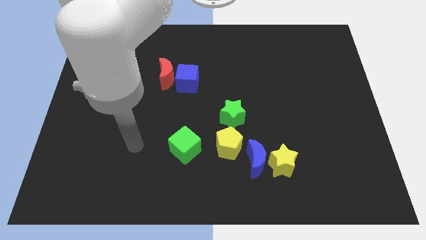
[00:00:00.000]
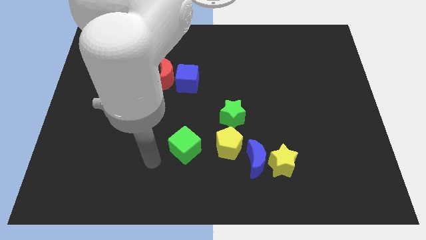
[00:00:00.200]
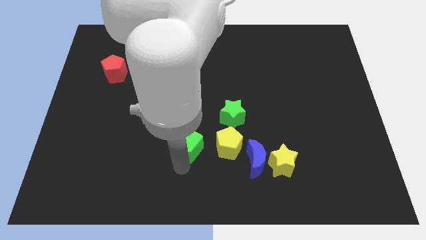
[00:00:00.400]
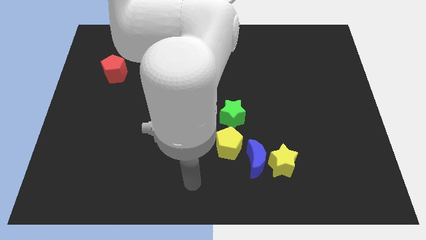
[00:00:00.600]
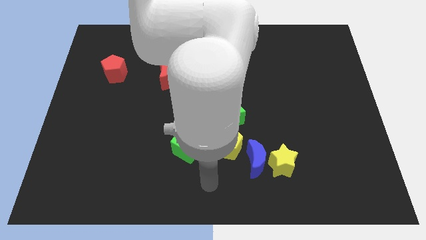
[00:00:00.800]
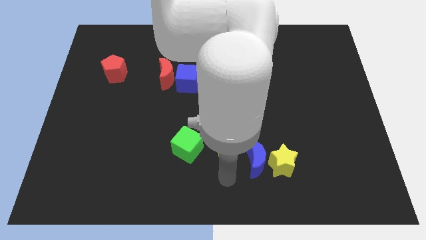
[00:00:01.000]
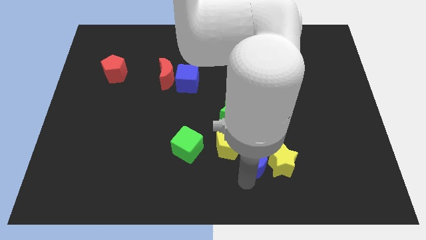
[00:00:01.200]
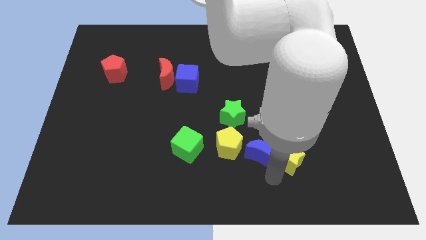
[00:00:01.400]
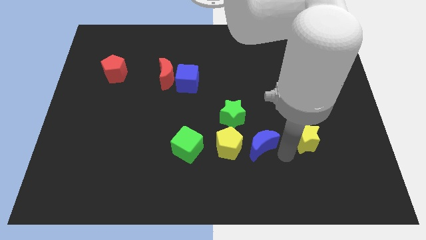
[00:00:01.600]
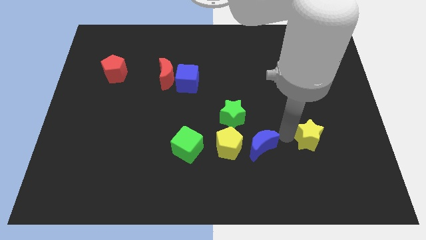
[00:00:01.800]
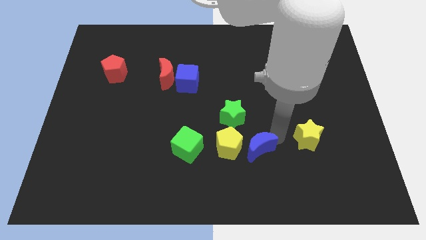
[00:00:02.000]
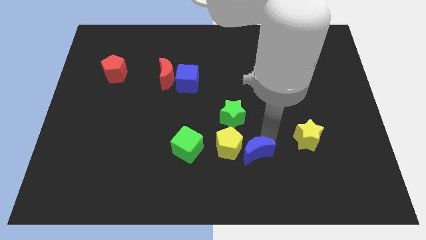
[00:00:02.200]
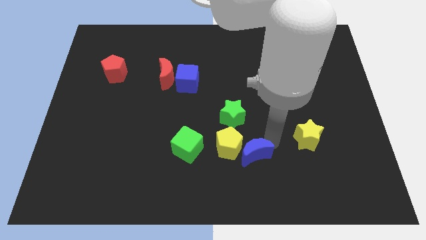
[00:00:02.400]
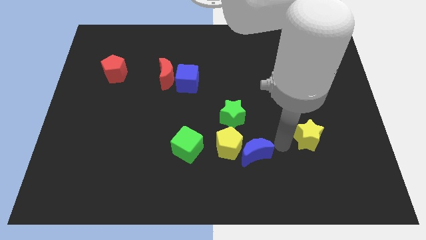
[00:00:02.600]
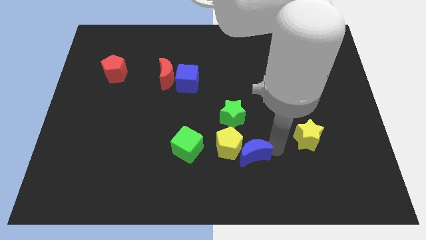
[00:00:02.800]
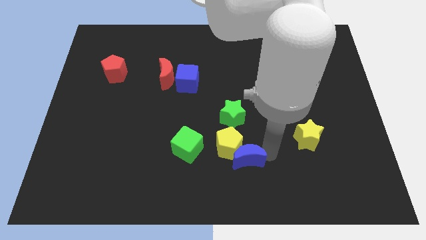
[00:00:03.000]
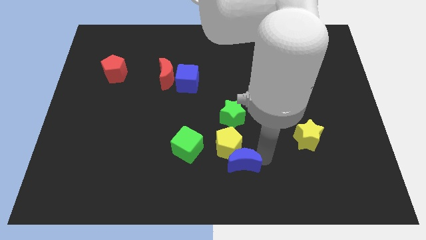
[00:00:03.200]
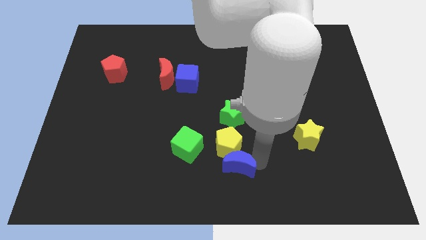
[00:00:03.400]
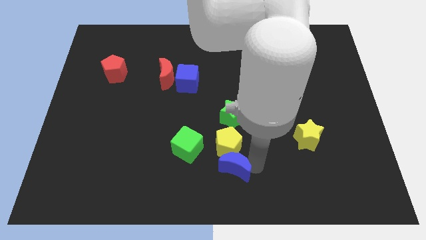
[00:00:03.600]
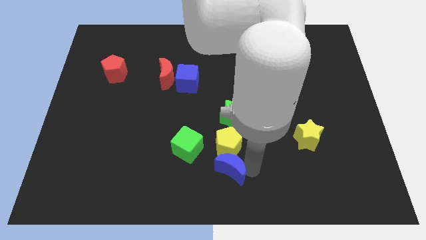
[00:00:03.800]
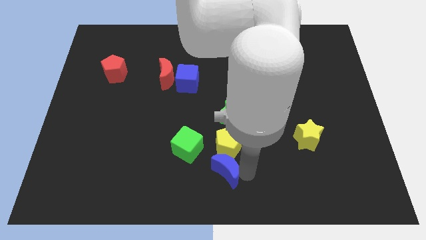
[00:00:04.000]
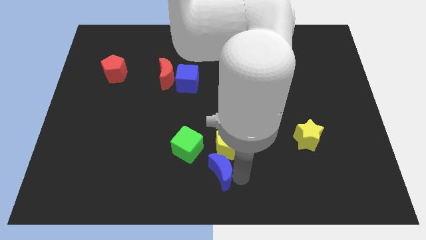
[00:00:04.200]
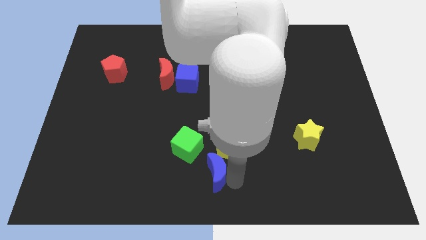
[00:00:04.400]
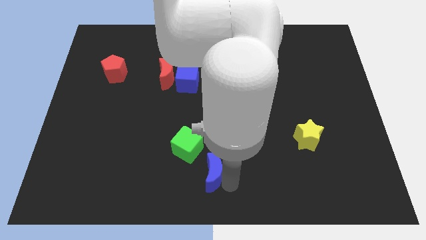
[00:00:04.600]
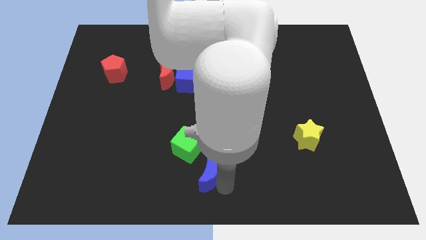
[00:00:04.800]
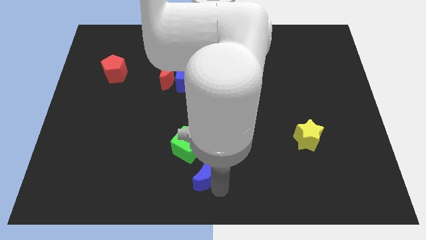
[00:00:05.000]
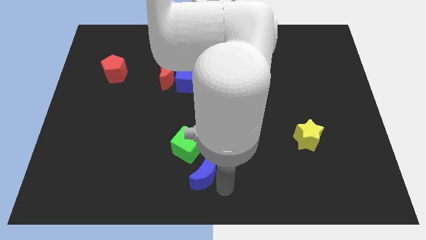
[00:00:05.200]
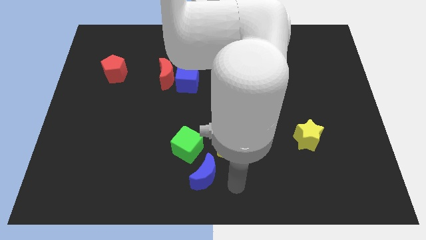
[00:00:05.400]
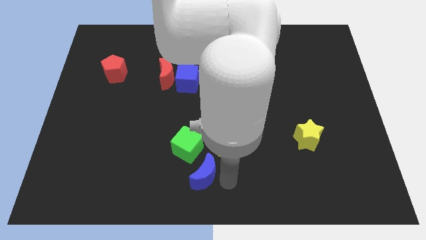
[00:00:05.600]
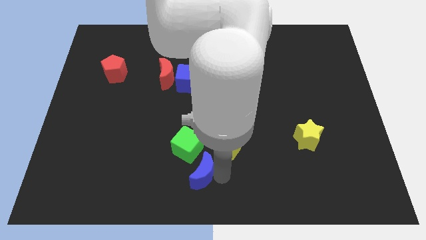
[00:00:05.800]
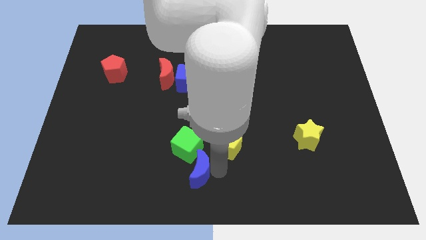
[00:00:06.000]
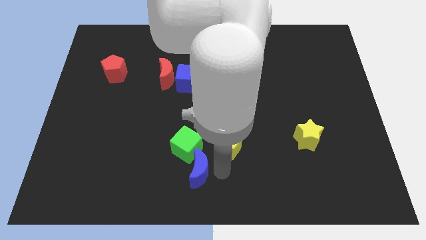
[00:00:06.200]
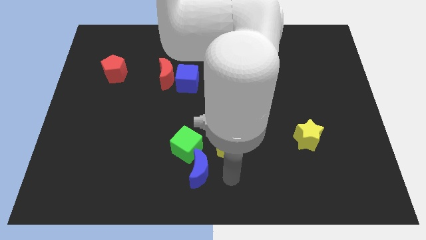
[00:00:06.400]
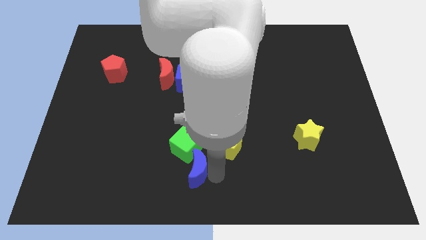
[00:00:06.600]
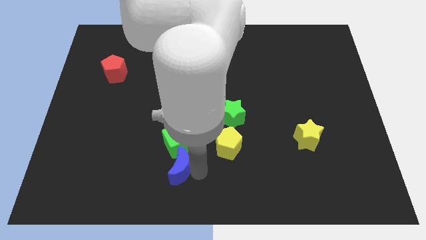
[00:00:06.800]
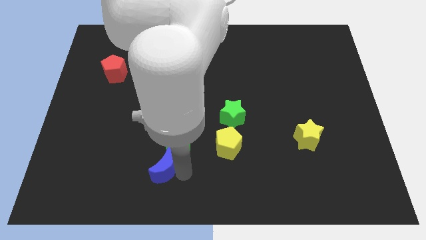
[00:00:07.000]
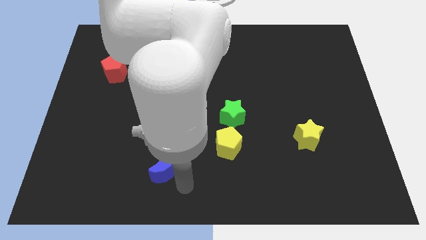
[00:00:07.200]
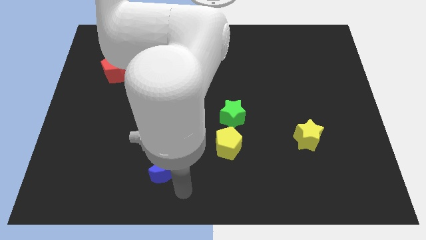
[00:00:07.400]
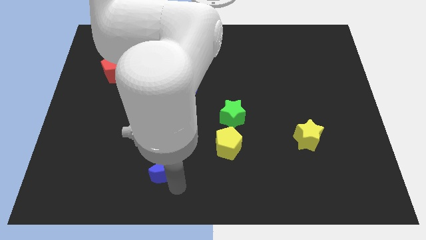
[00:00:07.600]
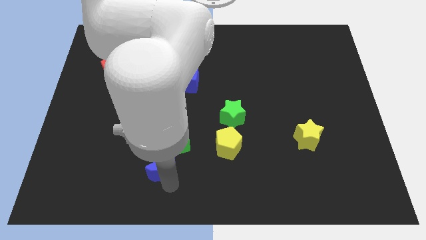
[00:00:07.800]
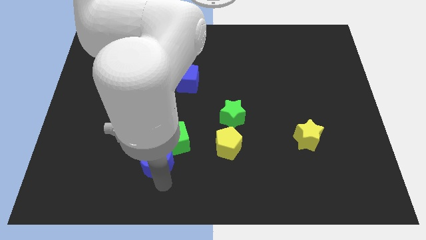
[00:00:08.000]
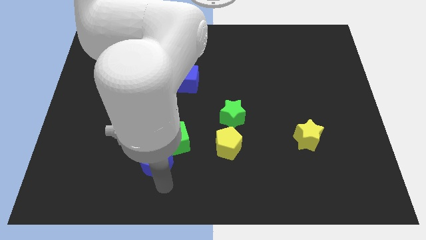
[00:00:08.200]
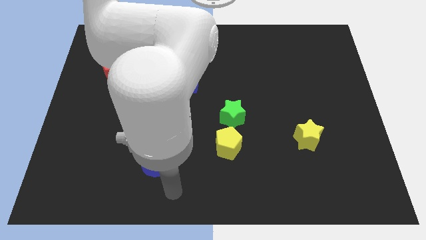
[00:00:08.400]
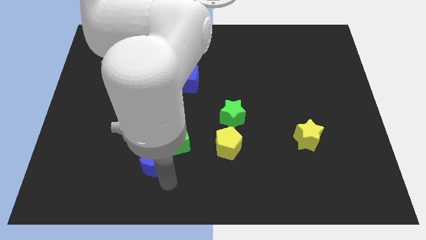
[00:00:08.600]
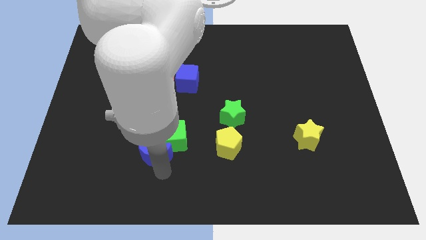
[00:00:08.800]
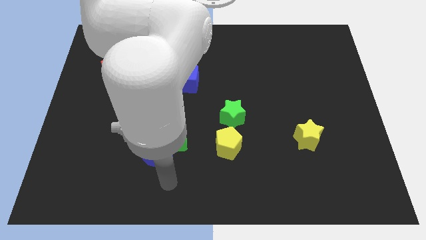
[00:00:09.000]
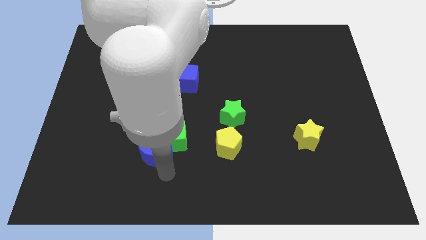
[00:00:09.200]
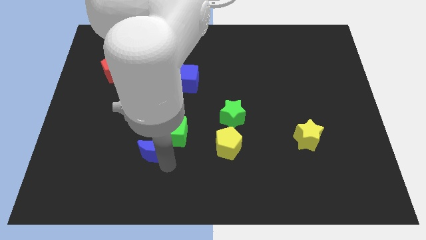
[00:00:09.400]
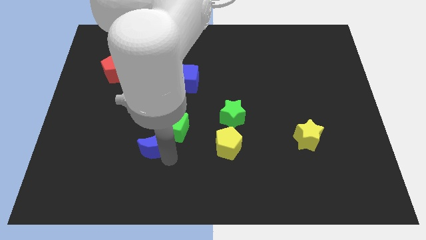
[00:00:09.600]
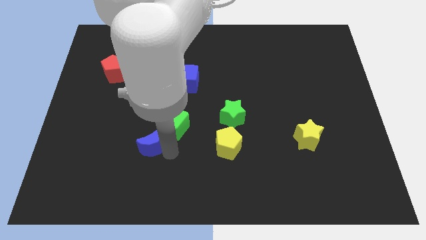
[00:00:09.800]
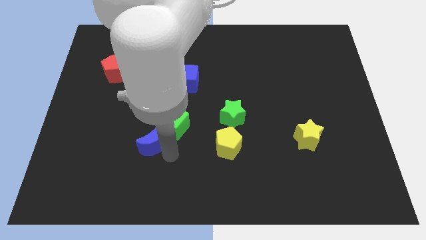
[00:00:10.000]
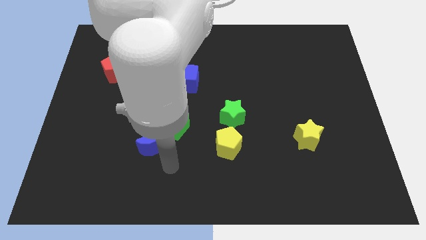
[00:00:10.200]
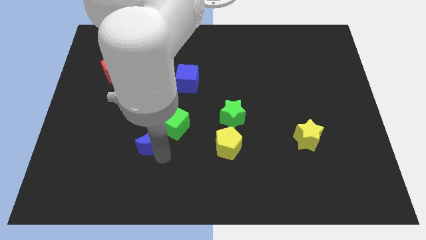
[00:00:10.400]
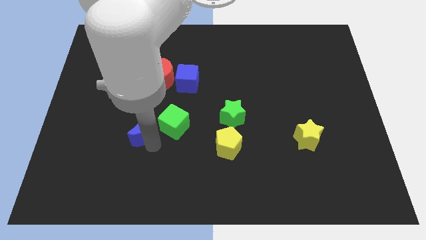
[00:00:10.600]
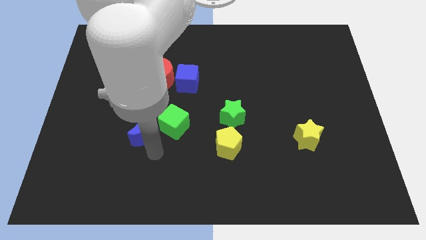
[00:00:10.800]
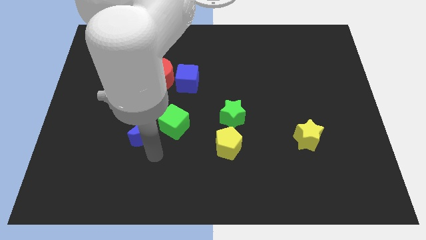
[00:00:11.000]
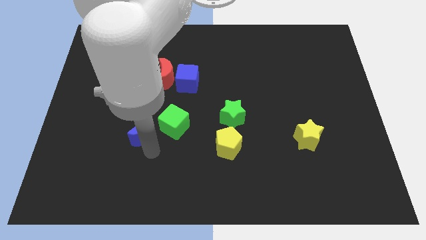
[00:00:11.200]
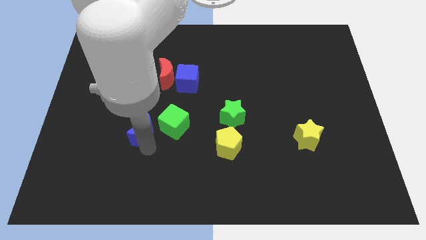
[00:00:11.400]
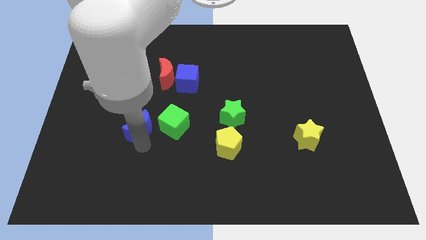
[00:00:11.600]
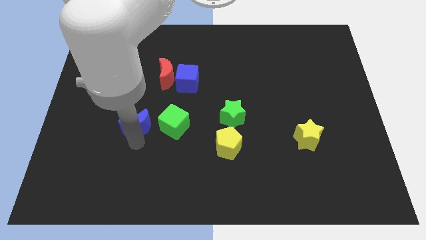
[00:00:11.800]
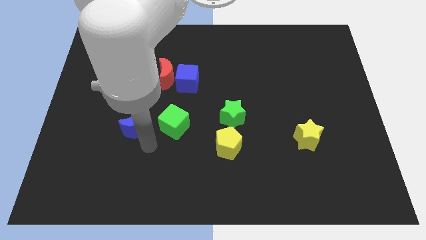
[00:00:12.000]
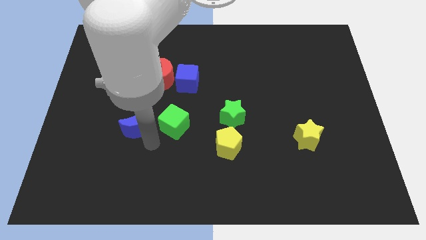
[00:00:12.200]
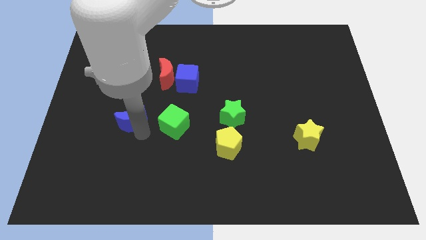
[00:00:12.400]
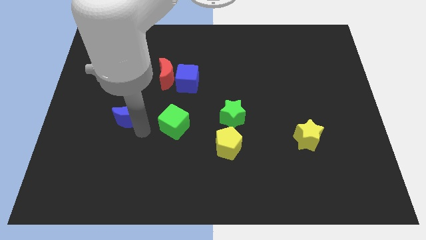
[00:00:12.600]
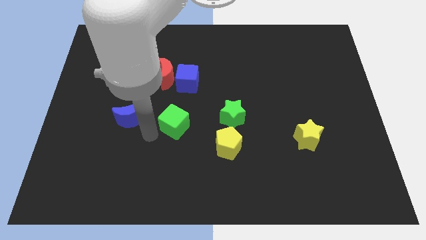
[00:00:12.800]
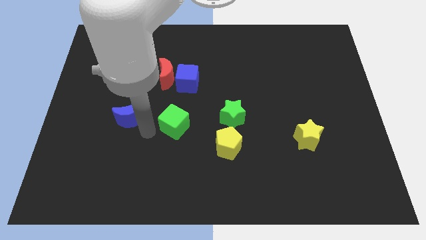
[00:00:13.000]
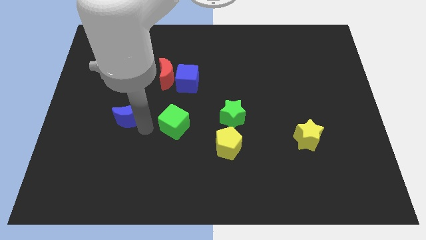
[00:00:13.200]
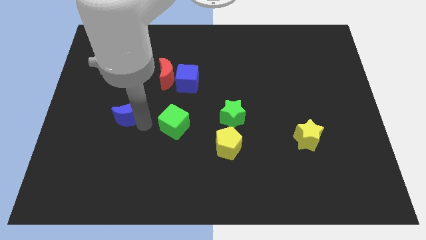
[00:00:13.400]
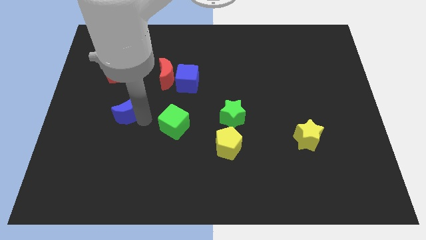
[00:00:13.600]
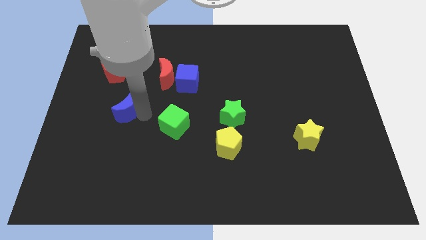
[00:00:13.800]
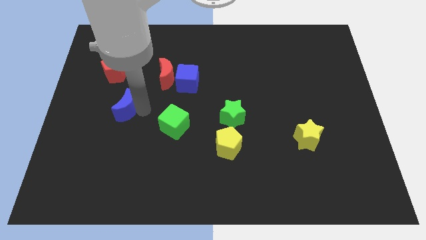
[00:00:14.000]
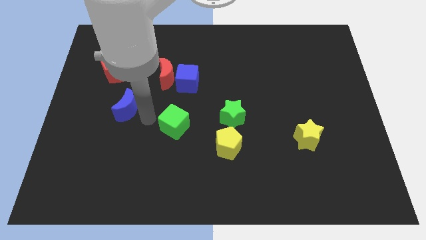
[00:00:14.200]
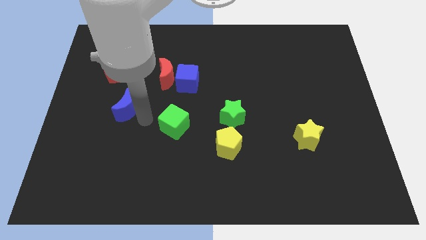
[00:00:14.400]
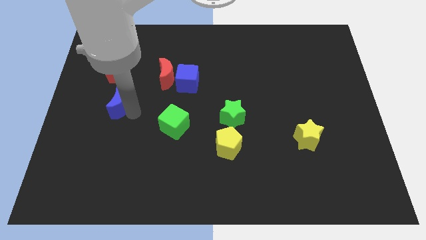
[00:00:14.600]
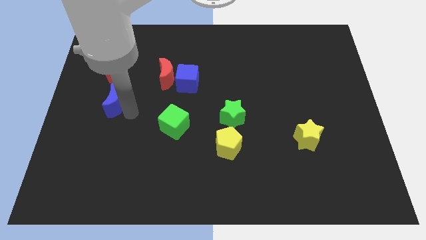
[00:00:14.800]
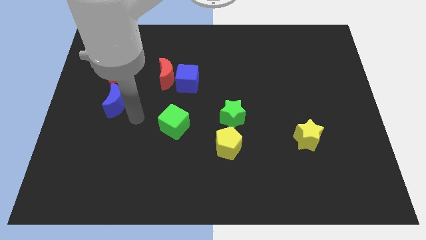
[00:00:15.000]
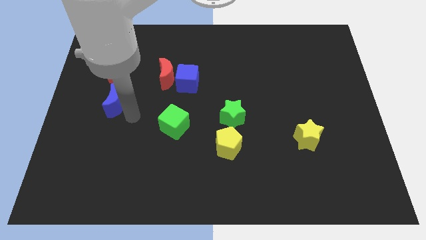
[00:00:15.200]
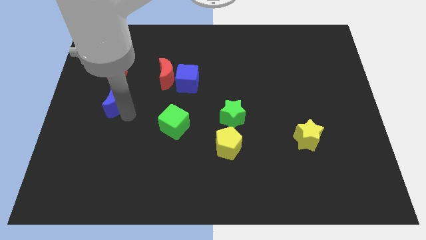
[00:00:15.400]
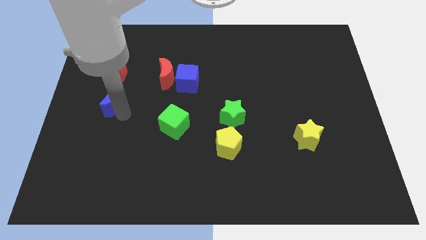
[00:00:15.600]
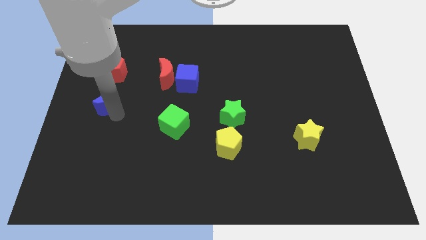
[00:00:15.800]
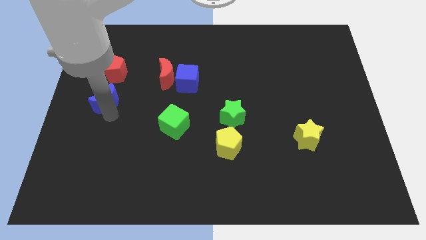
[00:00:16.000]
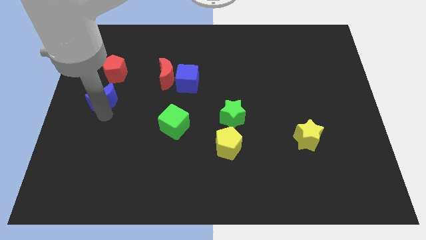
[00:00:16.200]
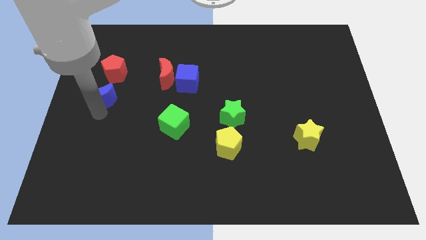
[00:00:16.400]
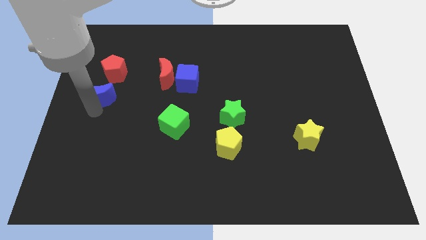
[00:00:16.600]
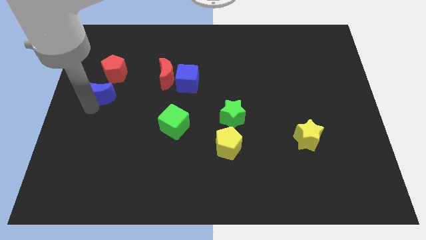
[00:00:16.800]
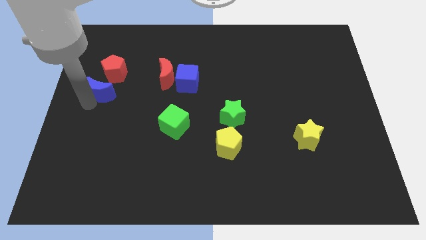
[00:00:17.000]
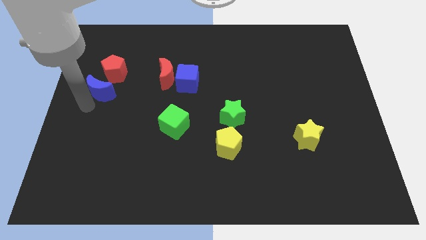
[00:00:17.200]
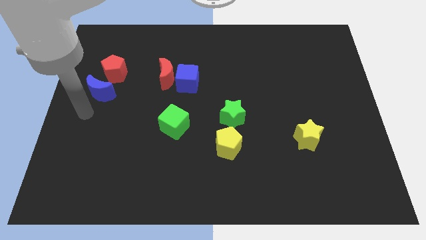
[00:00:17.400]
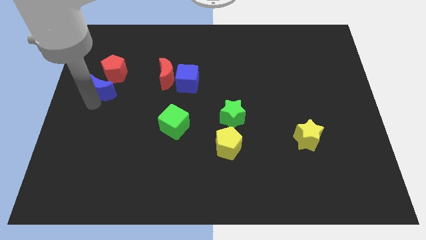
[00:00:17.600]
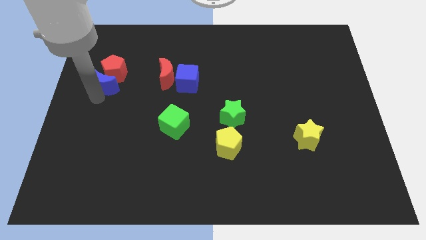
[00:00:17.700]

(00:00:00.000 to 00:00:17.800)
move the blue moon close to the red pentagon
